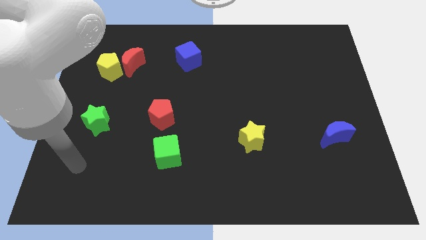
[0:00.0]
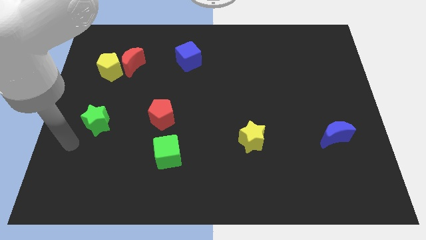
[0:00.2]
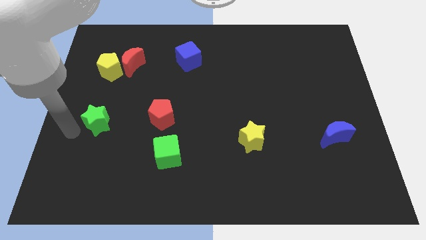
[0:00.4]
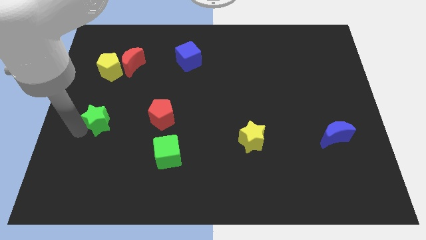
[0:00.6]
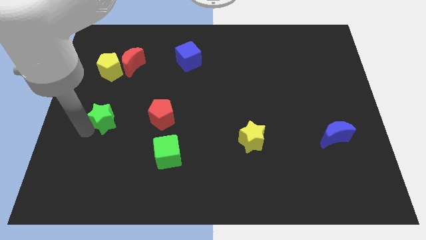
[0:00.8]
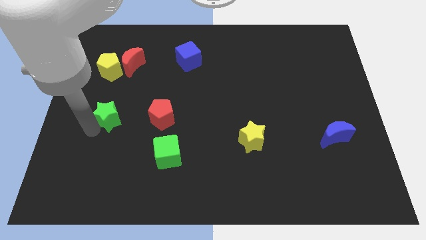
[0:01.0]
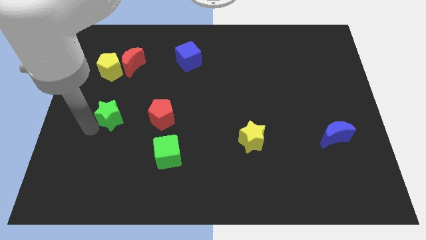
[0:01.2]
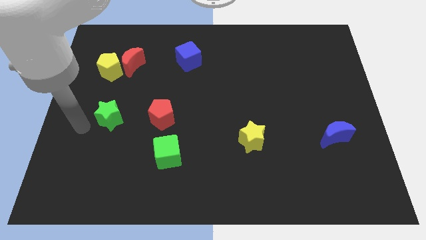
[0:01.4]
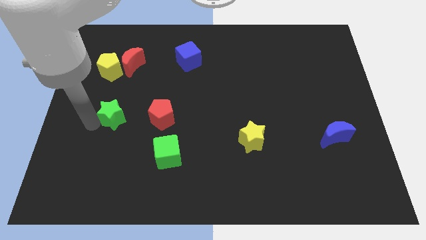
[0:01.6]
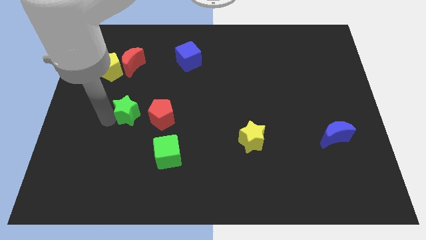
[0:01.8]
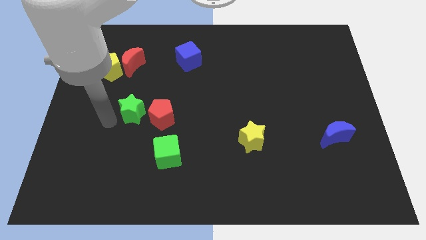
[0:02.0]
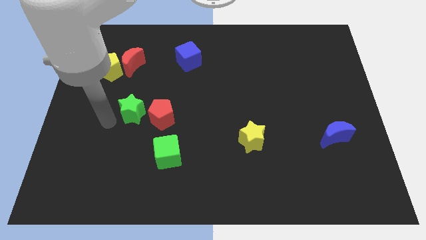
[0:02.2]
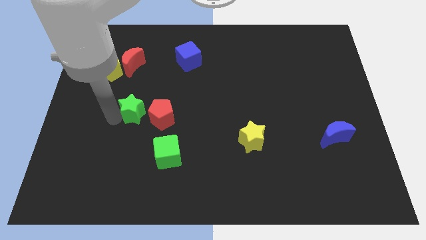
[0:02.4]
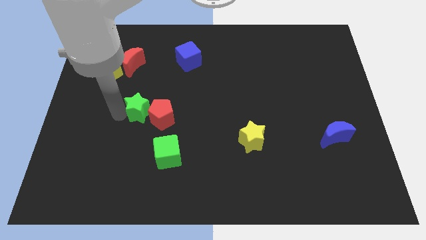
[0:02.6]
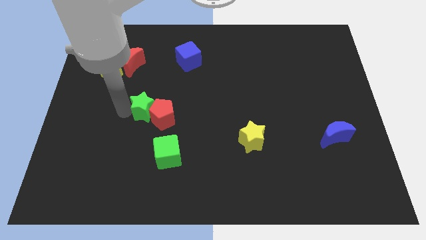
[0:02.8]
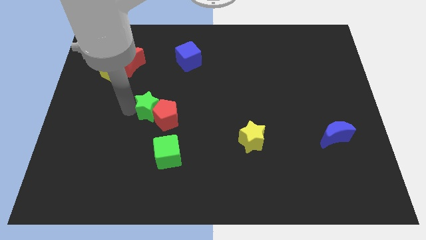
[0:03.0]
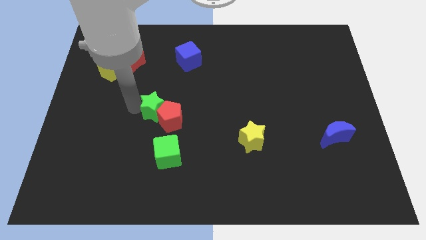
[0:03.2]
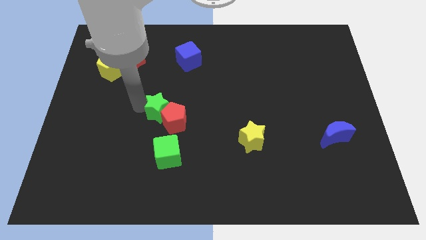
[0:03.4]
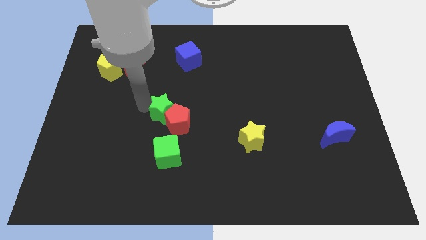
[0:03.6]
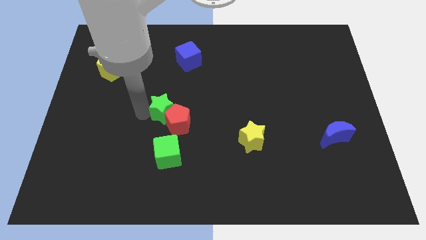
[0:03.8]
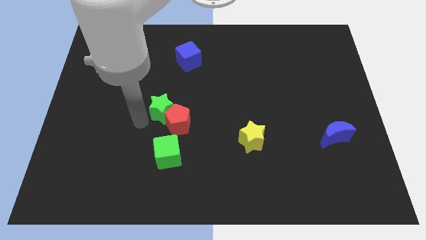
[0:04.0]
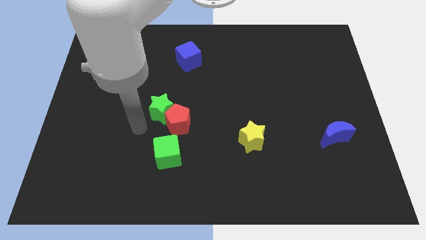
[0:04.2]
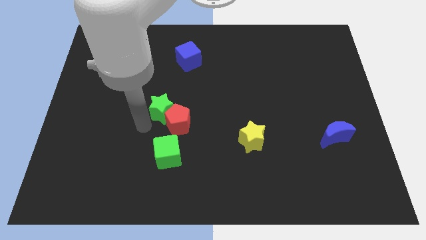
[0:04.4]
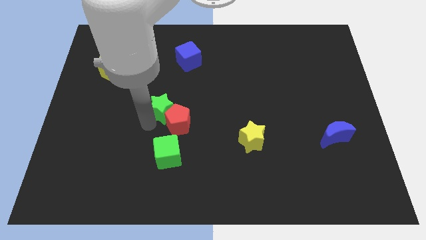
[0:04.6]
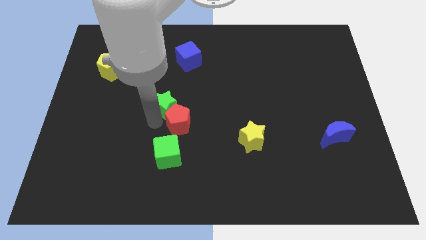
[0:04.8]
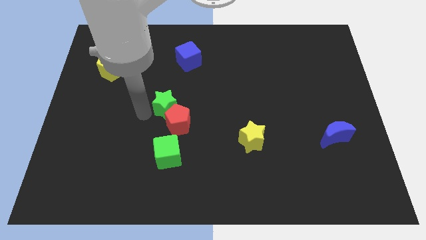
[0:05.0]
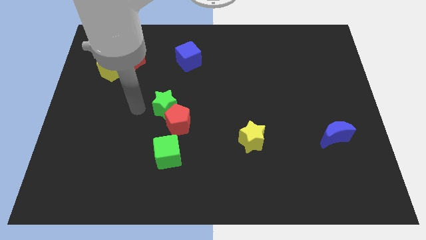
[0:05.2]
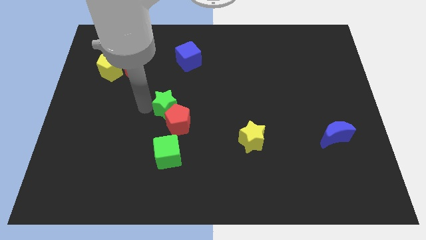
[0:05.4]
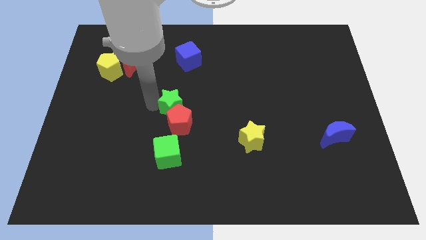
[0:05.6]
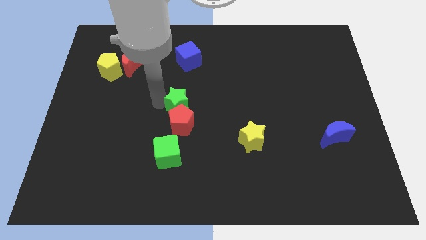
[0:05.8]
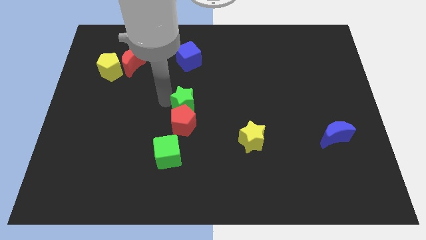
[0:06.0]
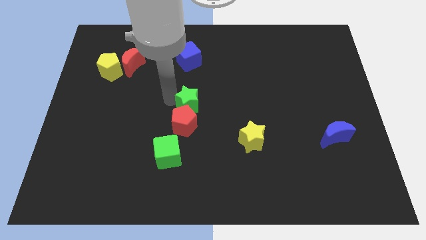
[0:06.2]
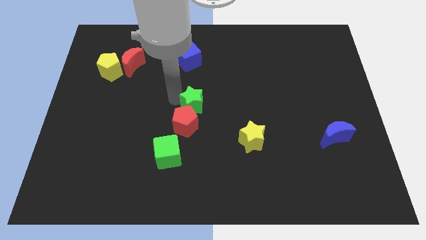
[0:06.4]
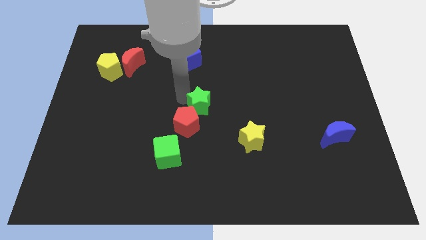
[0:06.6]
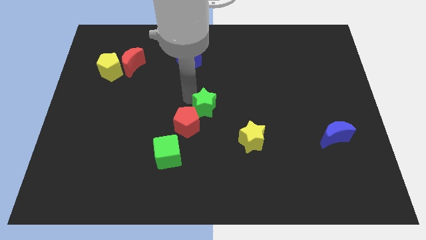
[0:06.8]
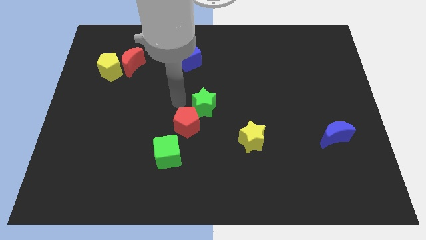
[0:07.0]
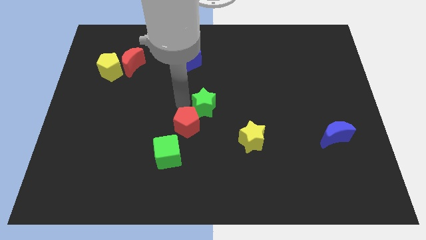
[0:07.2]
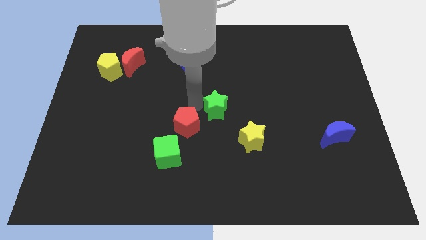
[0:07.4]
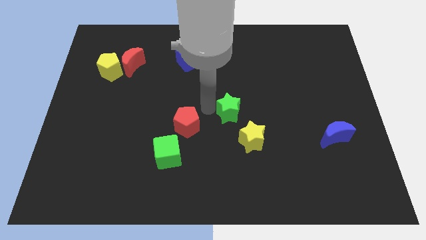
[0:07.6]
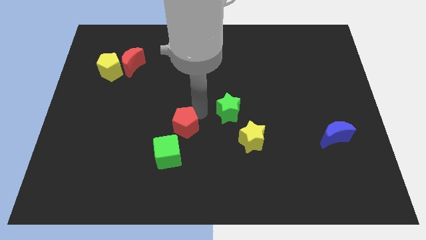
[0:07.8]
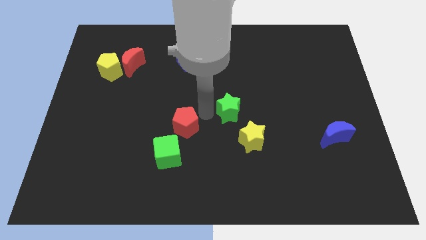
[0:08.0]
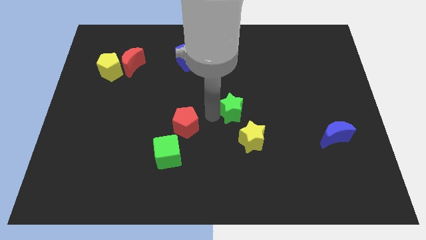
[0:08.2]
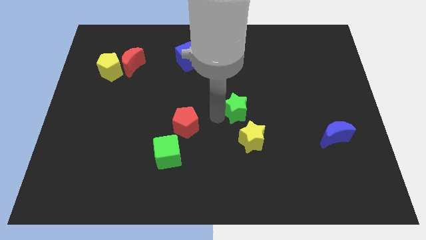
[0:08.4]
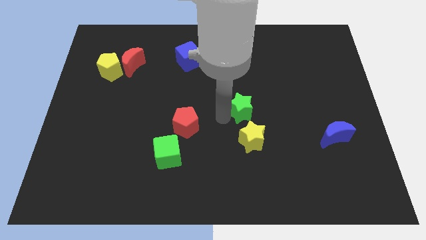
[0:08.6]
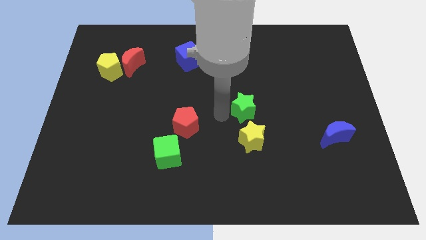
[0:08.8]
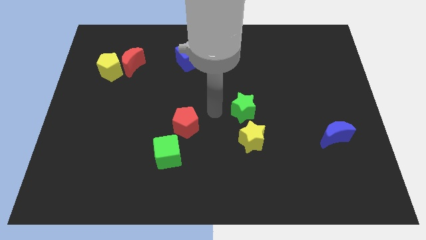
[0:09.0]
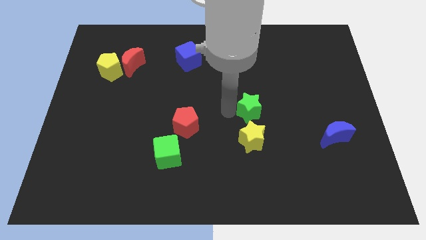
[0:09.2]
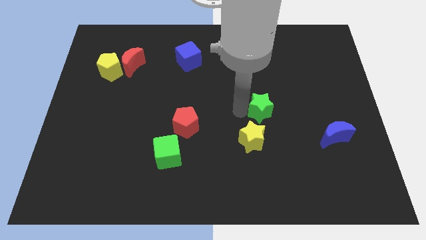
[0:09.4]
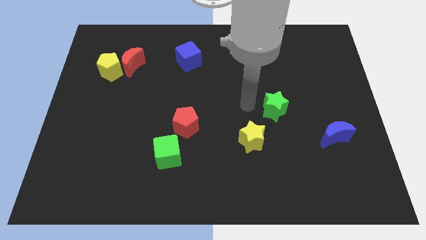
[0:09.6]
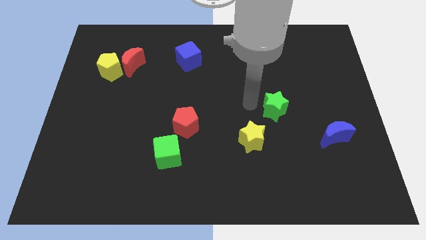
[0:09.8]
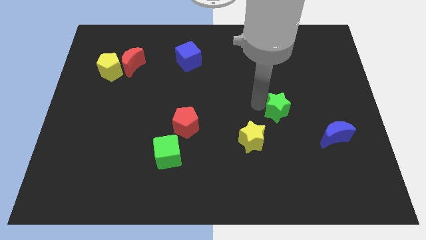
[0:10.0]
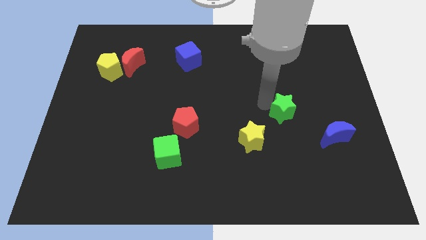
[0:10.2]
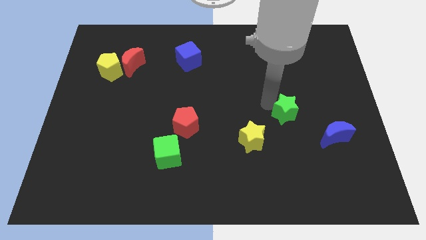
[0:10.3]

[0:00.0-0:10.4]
push the green star diagonally up and to the left of the blue moon

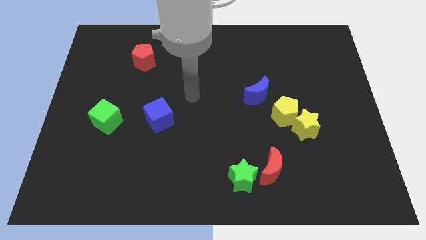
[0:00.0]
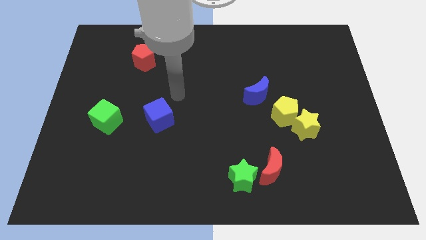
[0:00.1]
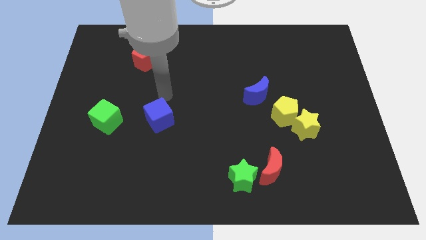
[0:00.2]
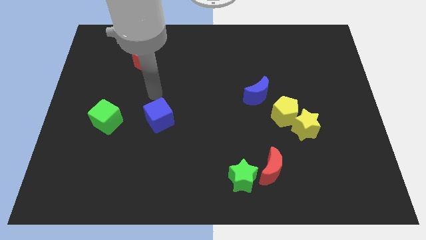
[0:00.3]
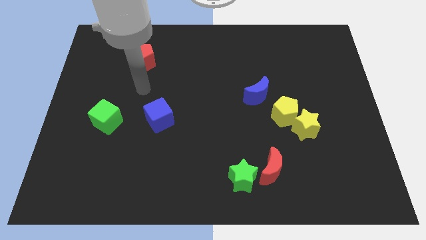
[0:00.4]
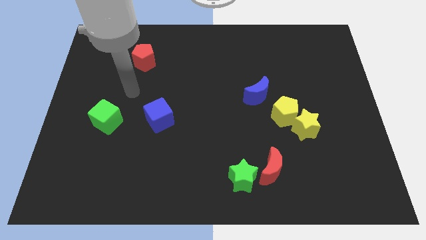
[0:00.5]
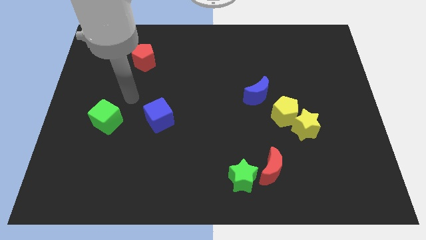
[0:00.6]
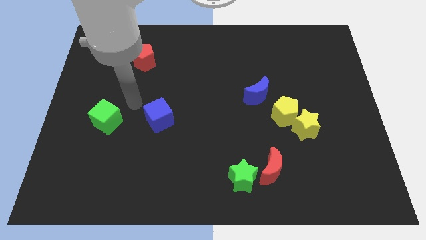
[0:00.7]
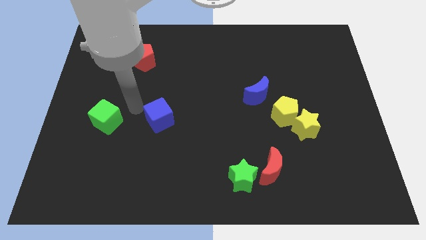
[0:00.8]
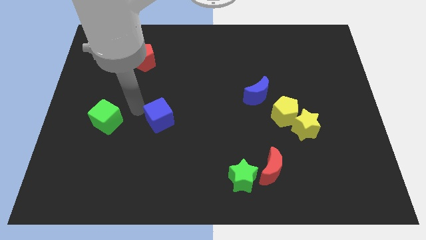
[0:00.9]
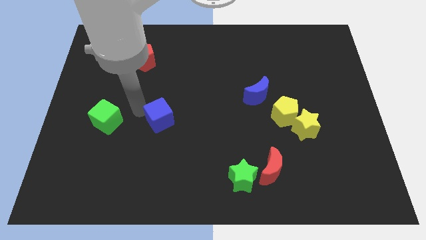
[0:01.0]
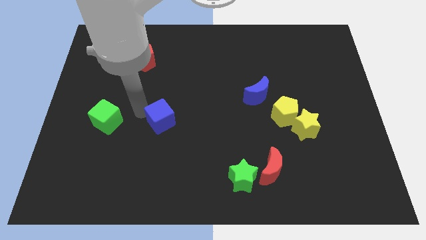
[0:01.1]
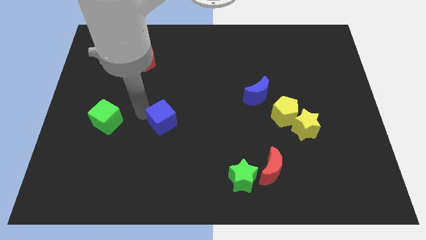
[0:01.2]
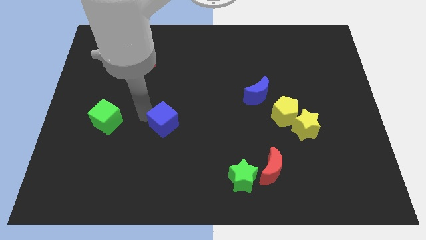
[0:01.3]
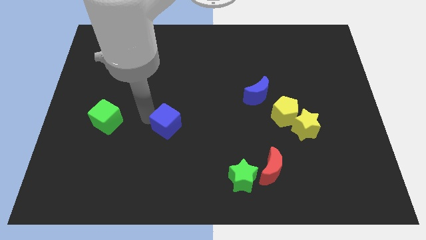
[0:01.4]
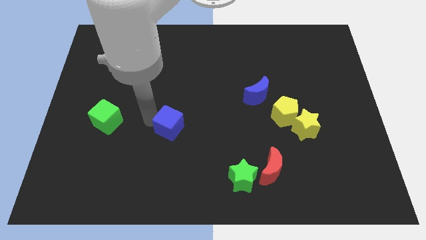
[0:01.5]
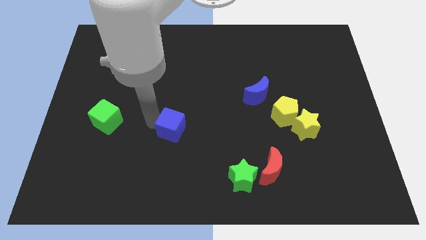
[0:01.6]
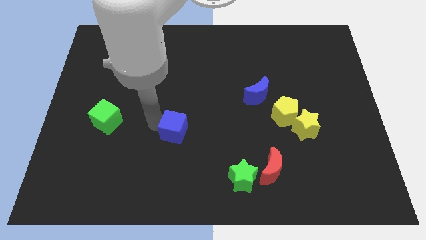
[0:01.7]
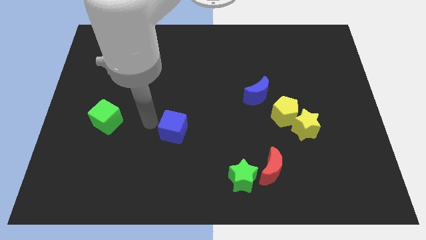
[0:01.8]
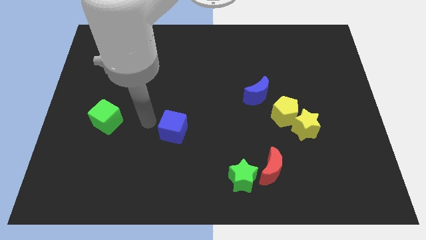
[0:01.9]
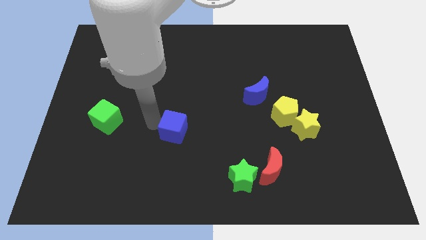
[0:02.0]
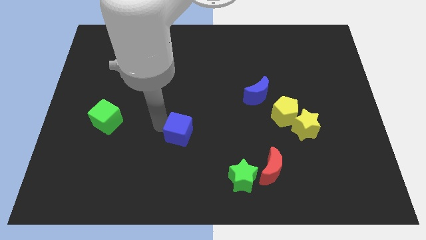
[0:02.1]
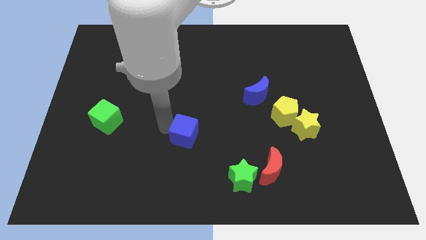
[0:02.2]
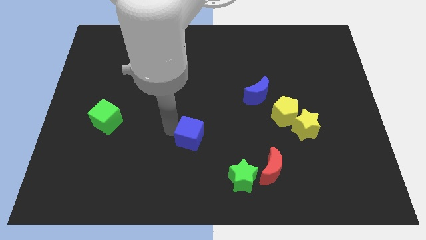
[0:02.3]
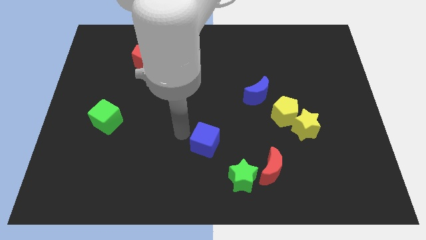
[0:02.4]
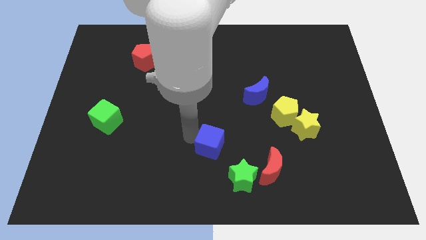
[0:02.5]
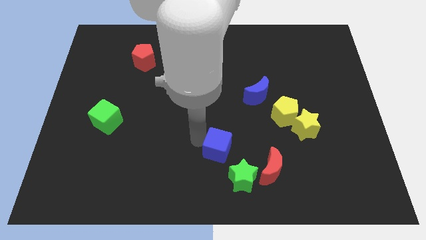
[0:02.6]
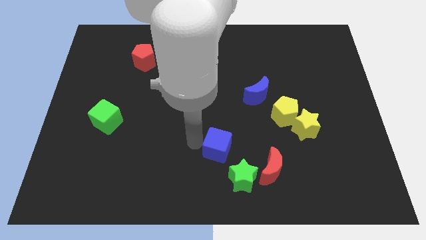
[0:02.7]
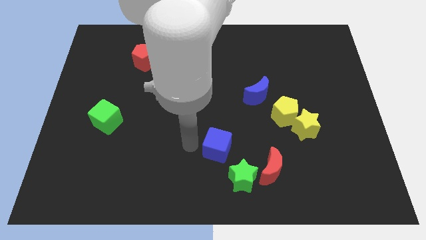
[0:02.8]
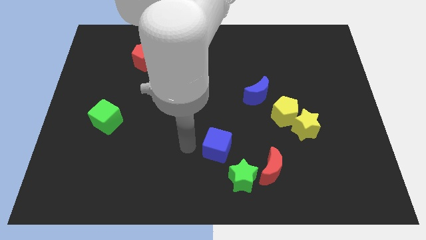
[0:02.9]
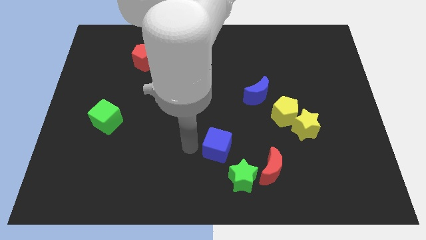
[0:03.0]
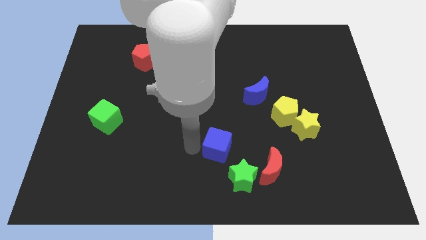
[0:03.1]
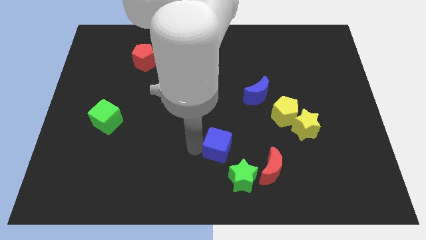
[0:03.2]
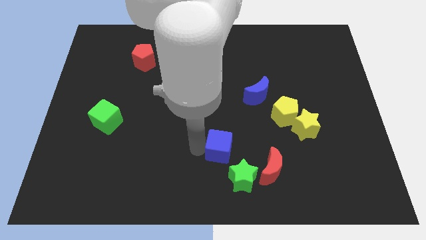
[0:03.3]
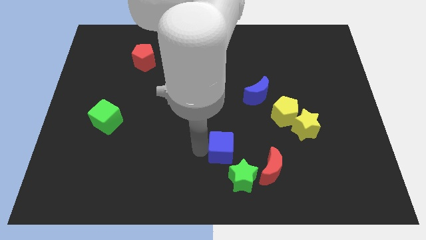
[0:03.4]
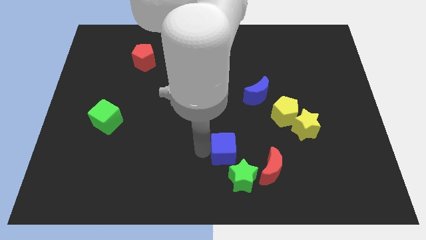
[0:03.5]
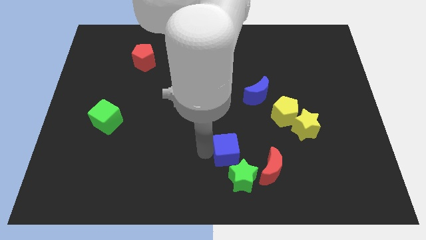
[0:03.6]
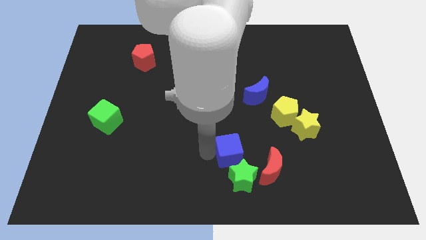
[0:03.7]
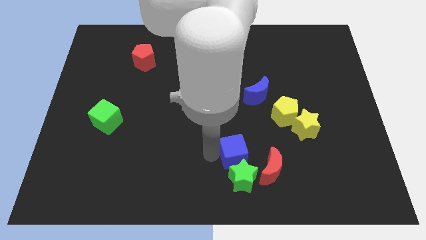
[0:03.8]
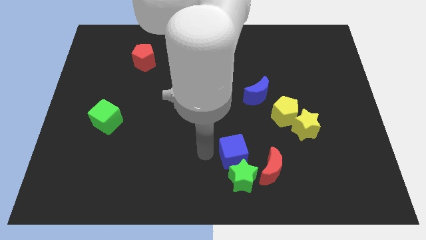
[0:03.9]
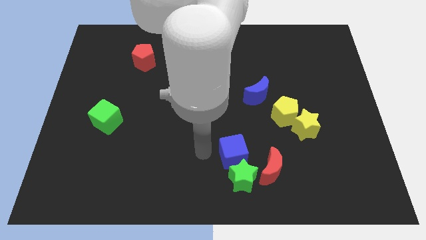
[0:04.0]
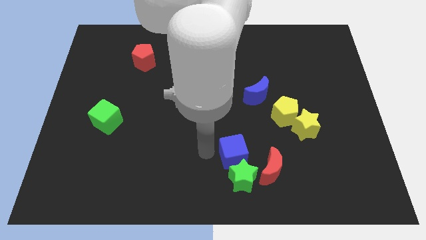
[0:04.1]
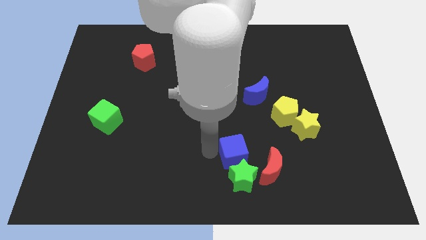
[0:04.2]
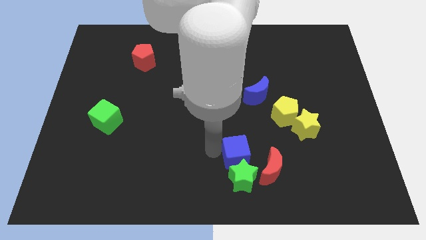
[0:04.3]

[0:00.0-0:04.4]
put the blue cube to the top right side of the green star
